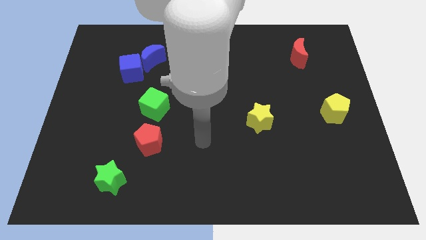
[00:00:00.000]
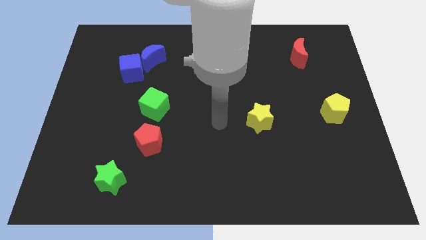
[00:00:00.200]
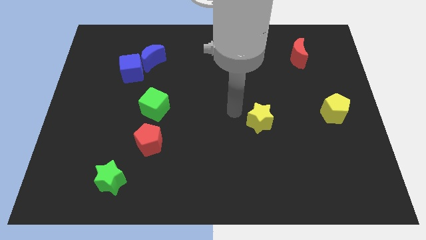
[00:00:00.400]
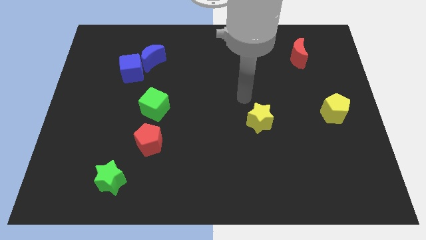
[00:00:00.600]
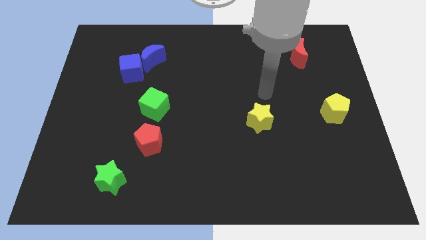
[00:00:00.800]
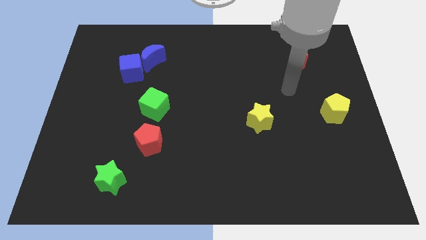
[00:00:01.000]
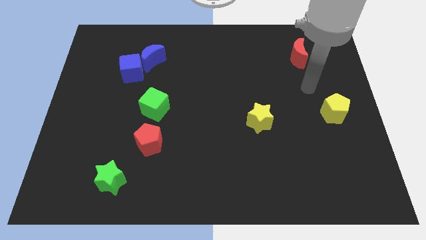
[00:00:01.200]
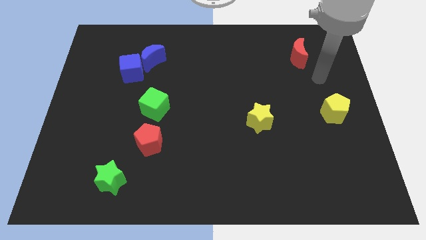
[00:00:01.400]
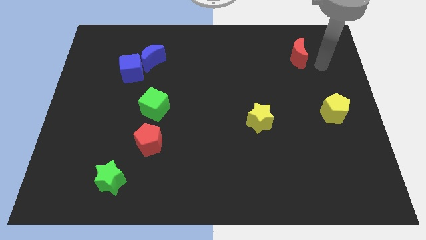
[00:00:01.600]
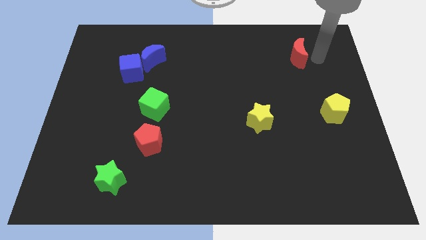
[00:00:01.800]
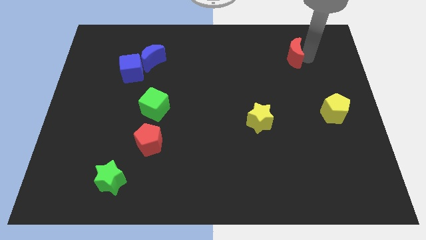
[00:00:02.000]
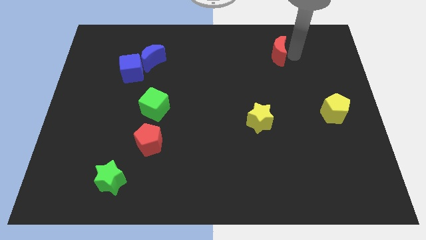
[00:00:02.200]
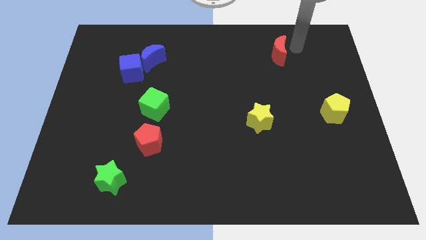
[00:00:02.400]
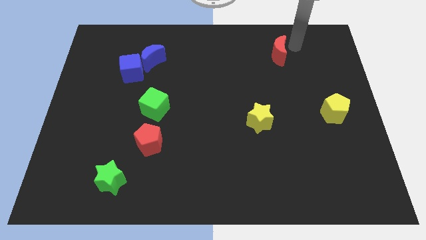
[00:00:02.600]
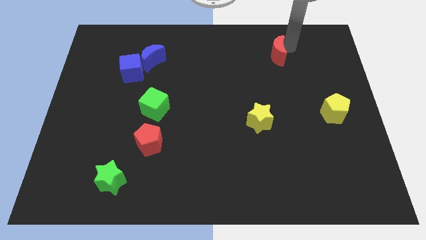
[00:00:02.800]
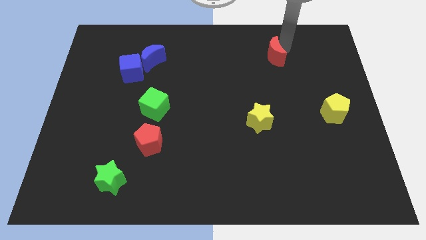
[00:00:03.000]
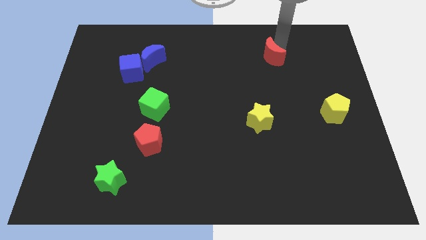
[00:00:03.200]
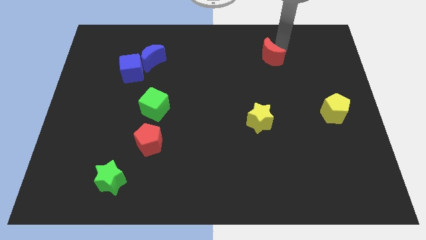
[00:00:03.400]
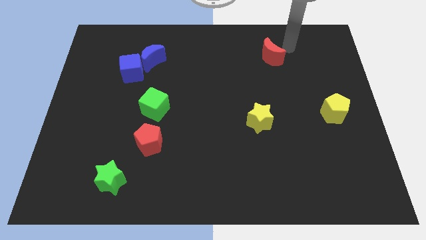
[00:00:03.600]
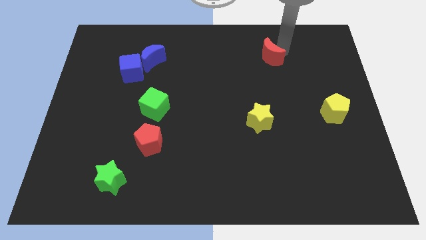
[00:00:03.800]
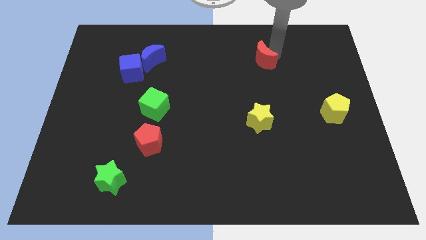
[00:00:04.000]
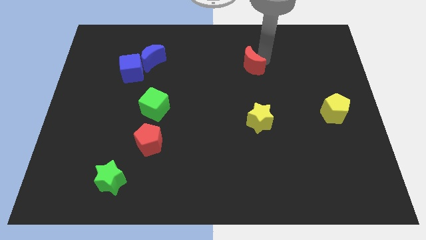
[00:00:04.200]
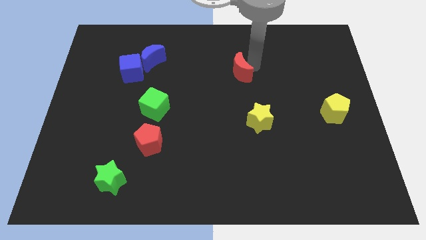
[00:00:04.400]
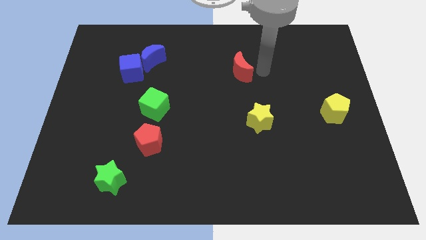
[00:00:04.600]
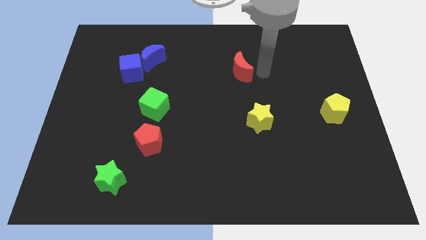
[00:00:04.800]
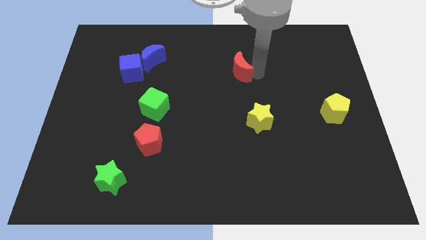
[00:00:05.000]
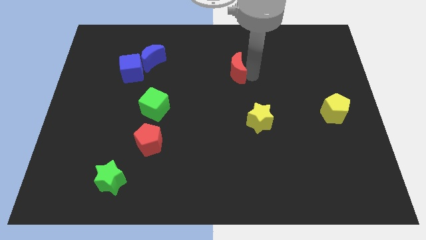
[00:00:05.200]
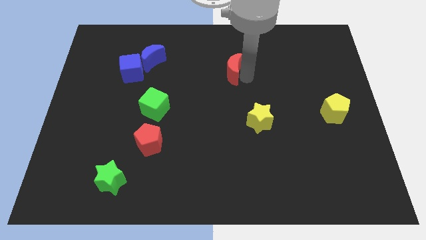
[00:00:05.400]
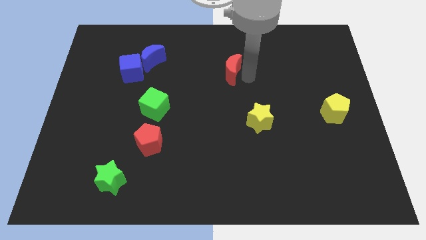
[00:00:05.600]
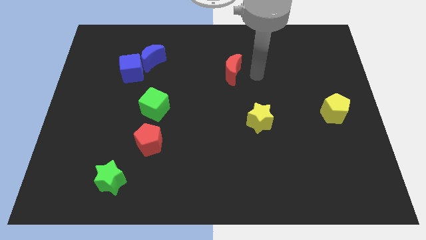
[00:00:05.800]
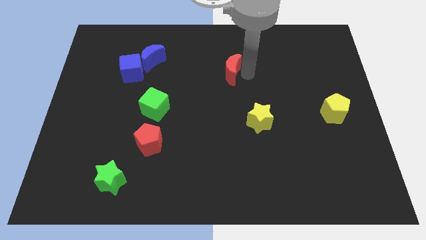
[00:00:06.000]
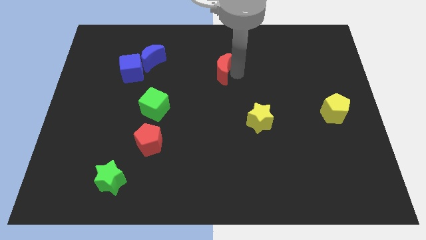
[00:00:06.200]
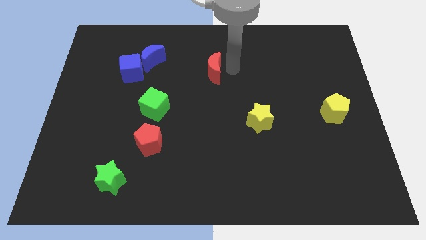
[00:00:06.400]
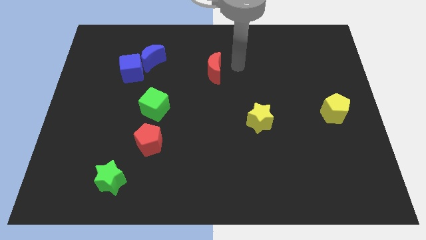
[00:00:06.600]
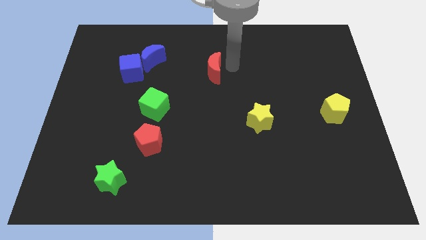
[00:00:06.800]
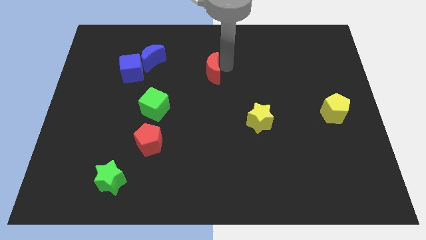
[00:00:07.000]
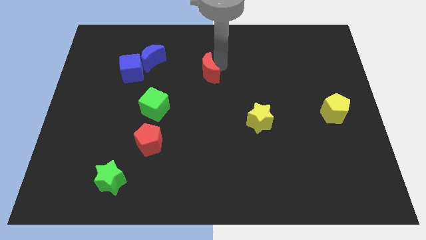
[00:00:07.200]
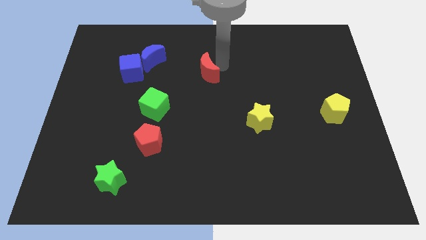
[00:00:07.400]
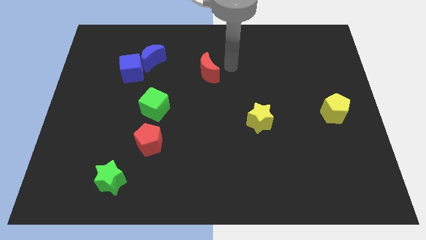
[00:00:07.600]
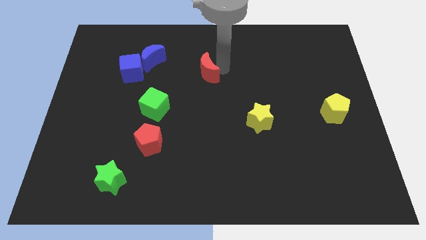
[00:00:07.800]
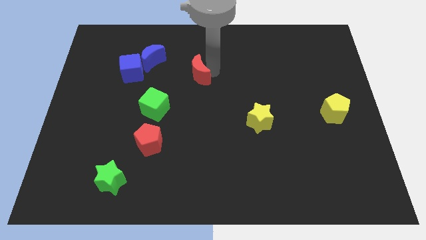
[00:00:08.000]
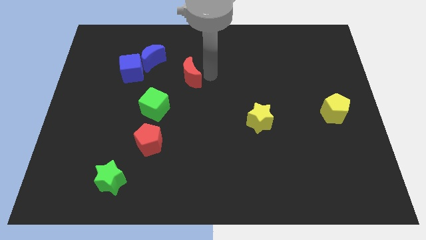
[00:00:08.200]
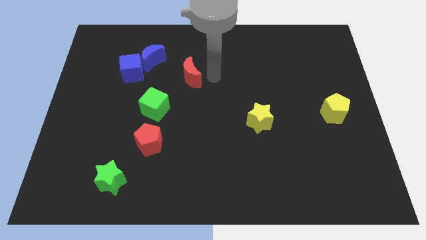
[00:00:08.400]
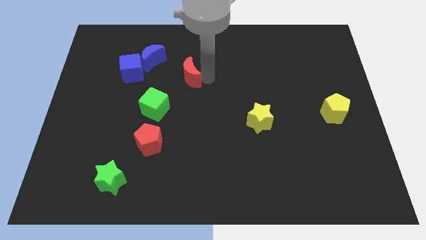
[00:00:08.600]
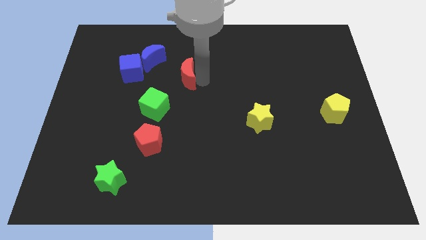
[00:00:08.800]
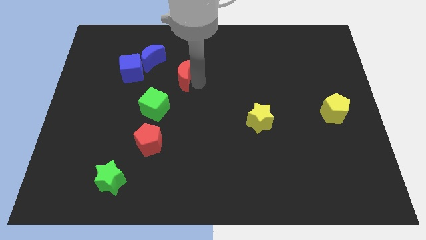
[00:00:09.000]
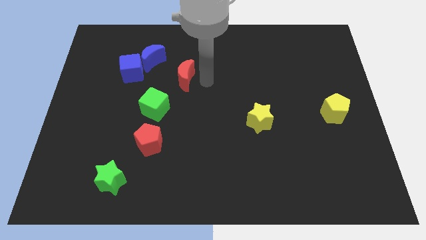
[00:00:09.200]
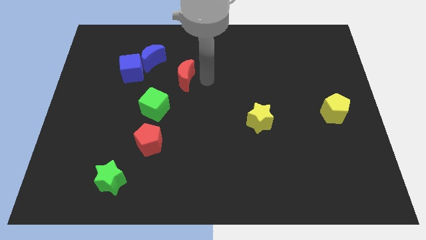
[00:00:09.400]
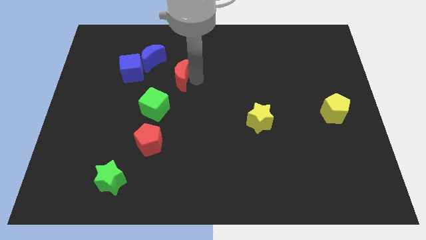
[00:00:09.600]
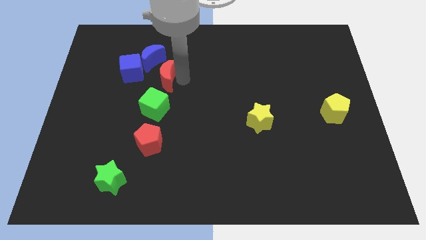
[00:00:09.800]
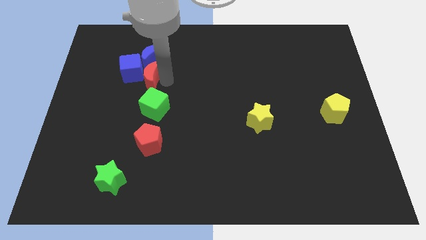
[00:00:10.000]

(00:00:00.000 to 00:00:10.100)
put the red moon next to the blue cube

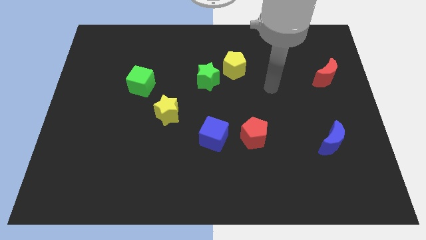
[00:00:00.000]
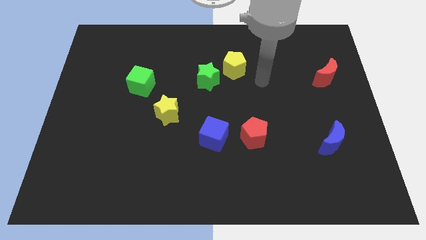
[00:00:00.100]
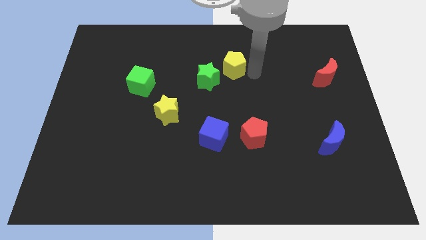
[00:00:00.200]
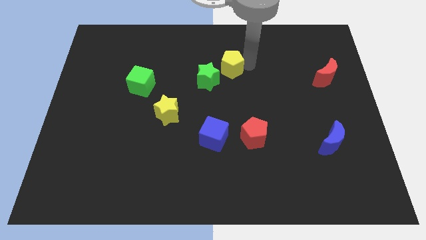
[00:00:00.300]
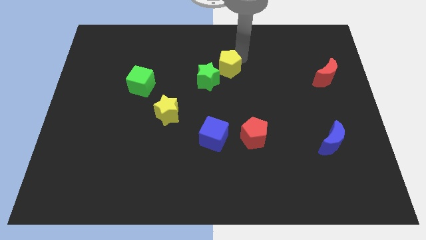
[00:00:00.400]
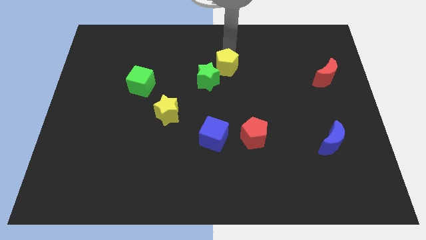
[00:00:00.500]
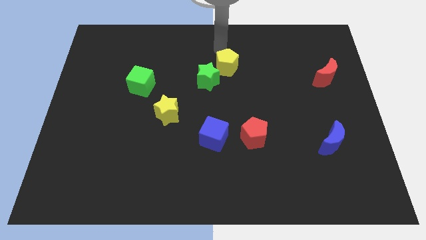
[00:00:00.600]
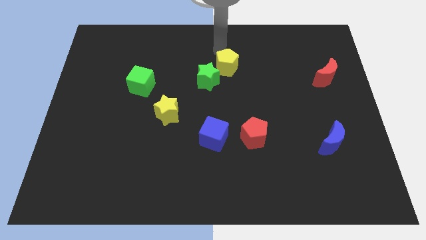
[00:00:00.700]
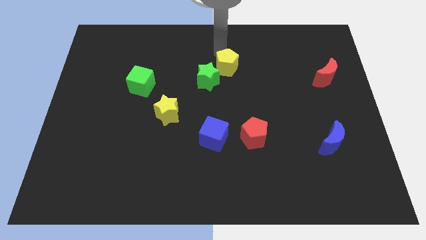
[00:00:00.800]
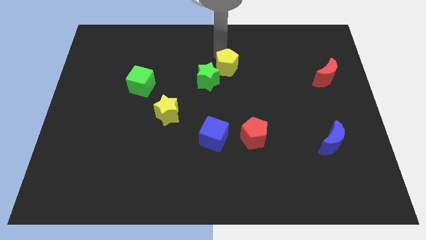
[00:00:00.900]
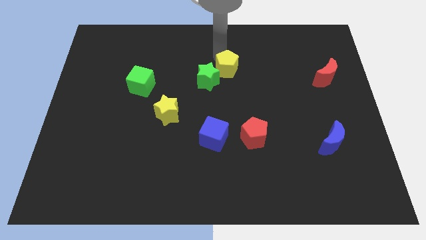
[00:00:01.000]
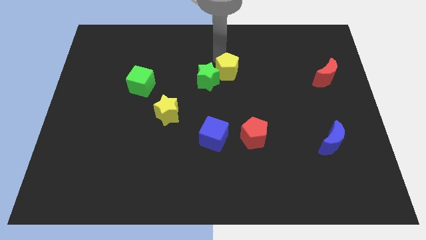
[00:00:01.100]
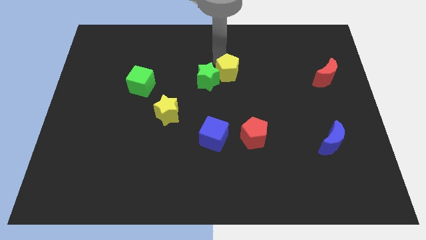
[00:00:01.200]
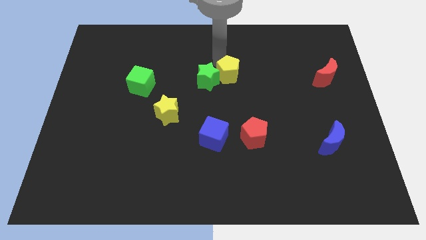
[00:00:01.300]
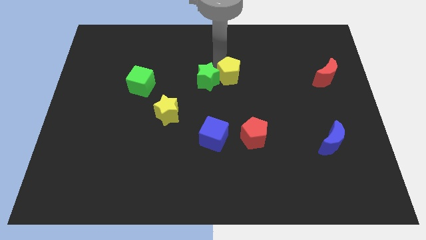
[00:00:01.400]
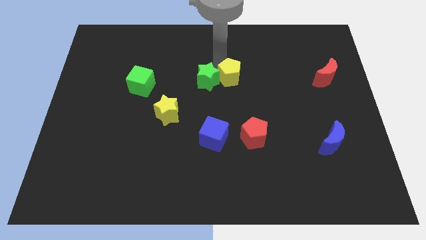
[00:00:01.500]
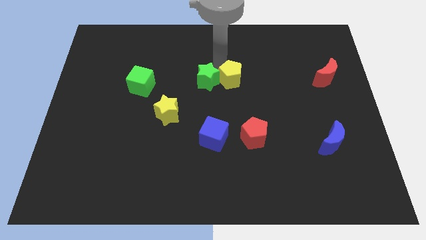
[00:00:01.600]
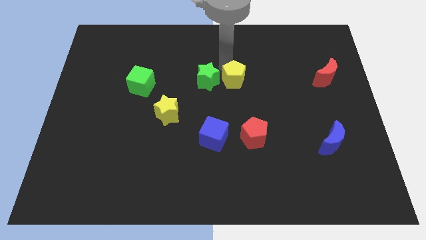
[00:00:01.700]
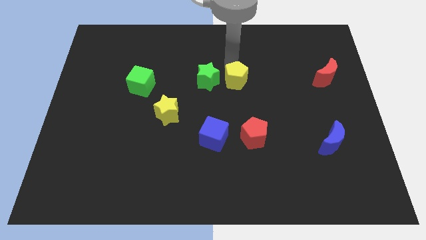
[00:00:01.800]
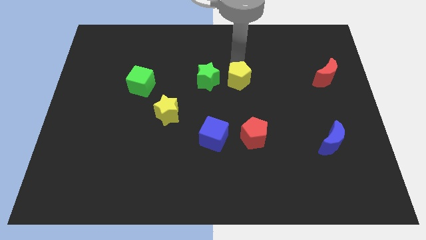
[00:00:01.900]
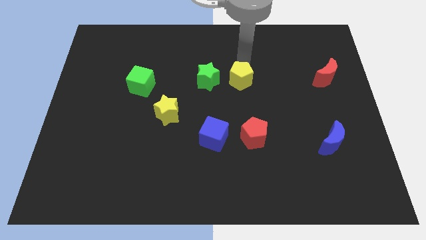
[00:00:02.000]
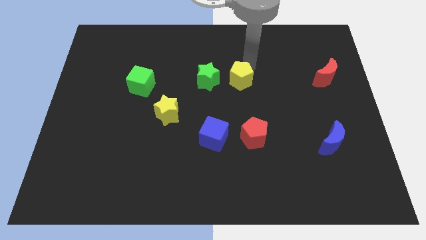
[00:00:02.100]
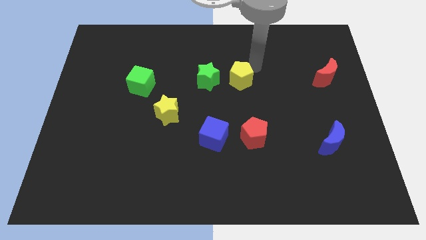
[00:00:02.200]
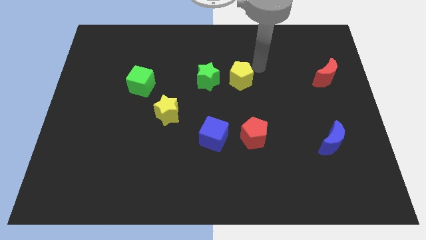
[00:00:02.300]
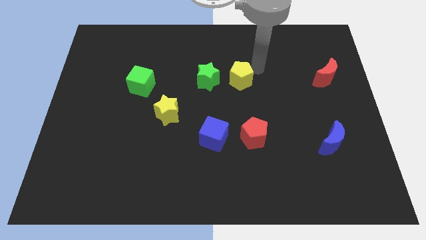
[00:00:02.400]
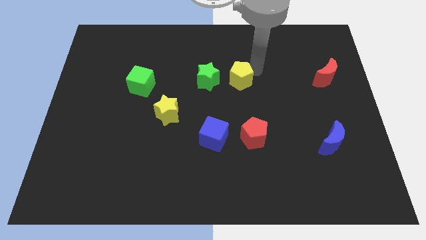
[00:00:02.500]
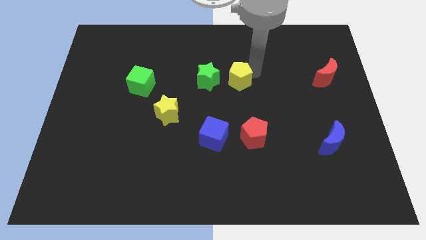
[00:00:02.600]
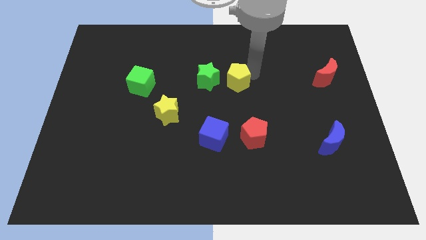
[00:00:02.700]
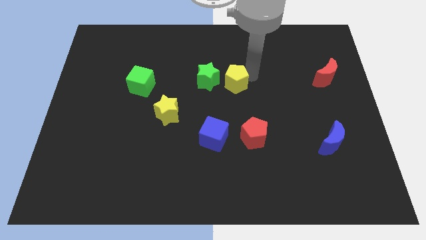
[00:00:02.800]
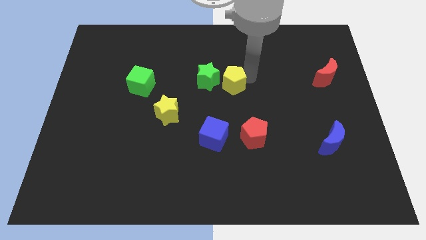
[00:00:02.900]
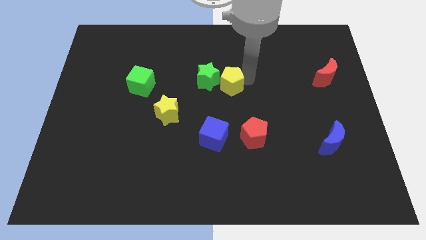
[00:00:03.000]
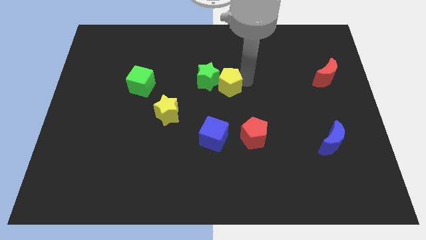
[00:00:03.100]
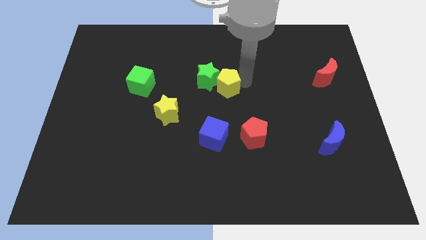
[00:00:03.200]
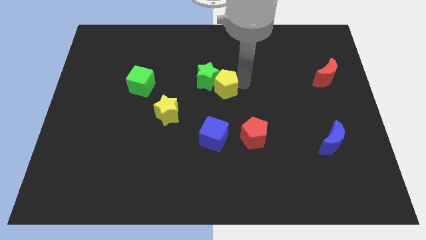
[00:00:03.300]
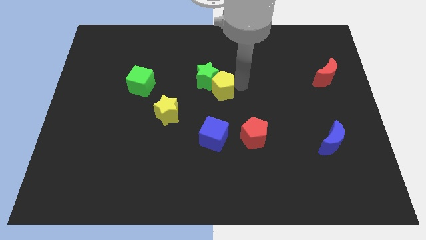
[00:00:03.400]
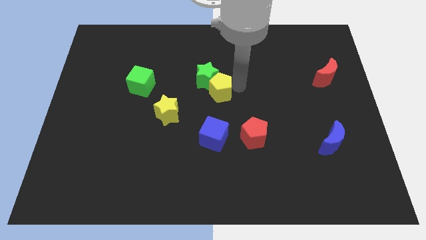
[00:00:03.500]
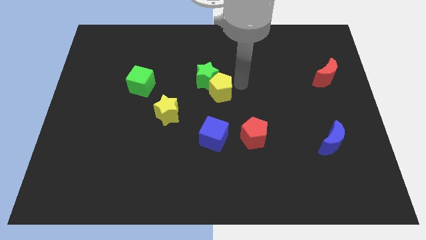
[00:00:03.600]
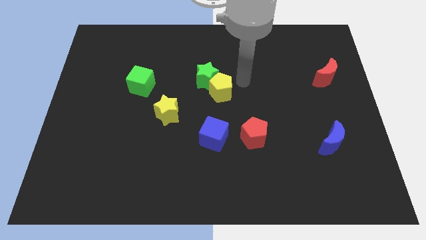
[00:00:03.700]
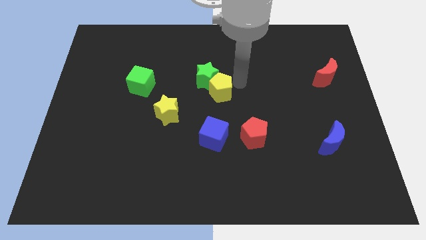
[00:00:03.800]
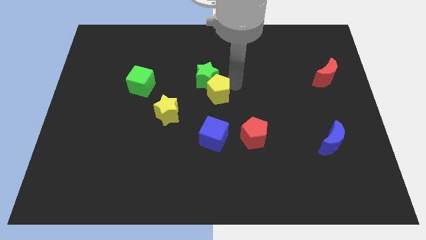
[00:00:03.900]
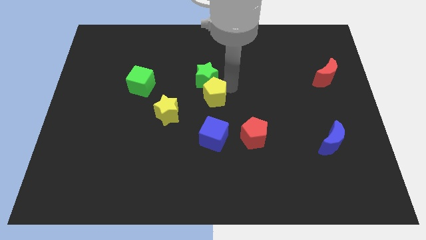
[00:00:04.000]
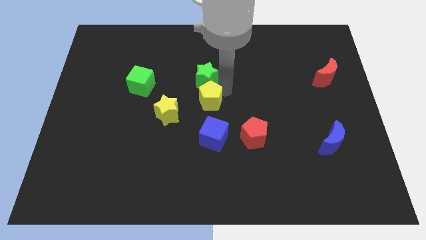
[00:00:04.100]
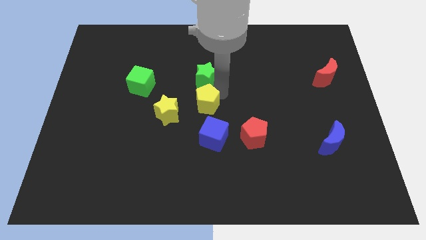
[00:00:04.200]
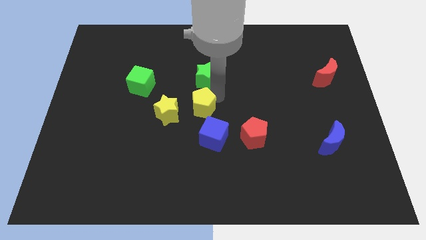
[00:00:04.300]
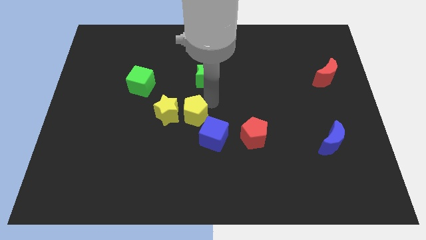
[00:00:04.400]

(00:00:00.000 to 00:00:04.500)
slide the yellow pentagon towards the yellow star
